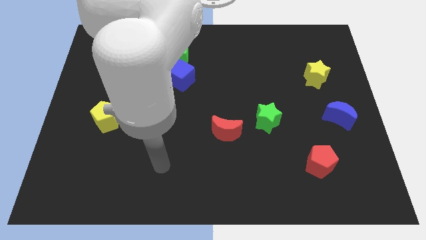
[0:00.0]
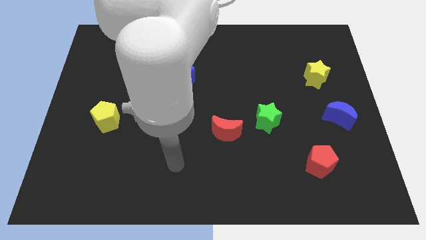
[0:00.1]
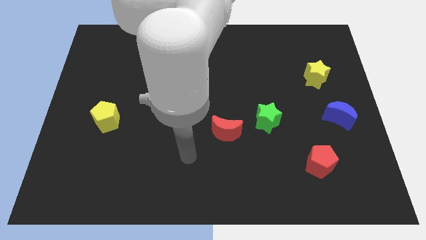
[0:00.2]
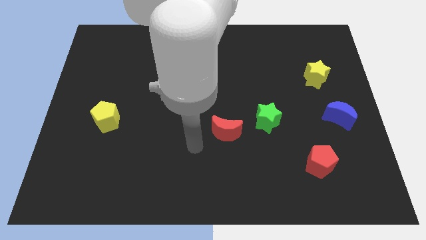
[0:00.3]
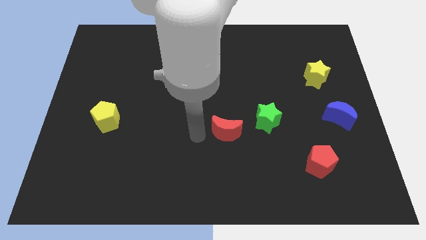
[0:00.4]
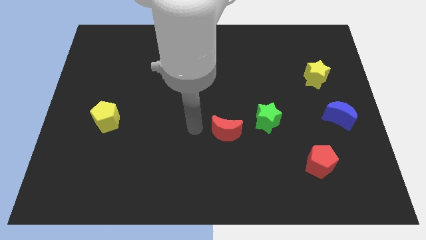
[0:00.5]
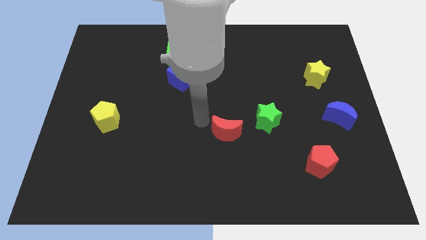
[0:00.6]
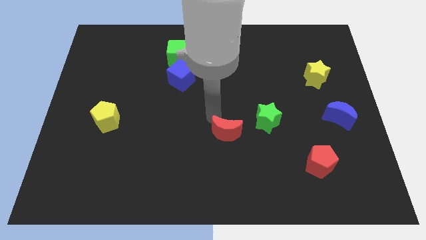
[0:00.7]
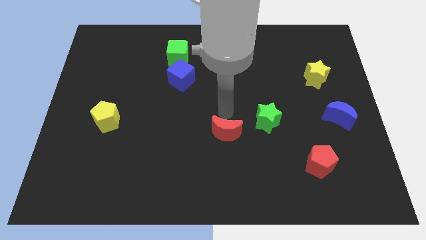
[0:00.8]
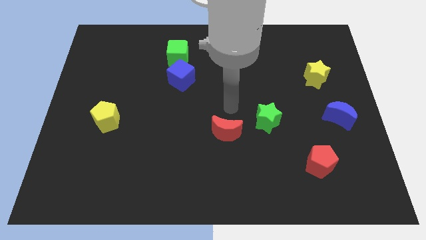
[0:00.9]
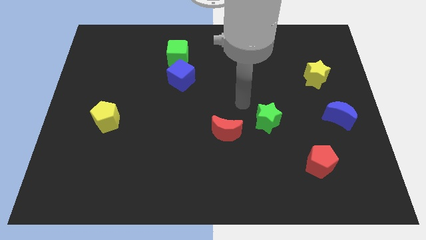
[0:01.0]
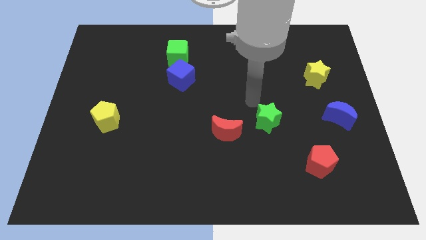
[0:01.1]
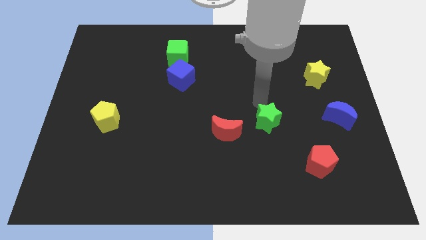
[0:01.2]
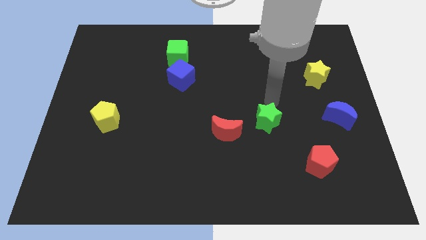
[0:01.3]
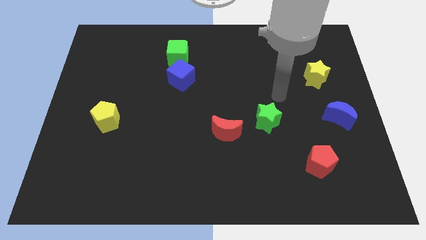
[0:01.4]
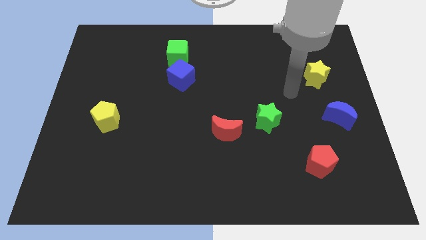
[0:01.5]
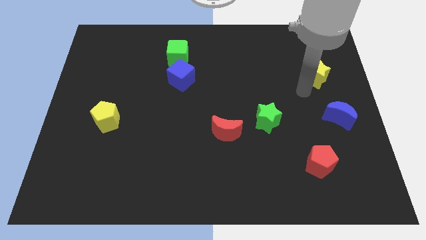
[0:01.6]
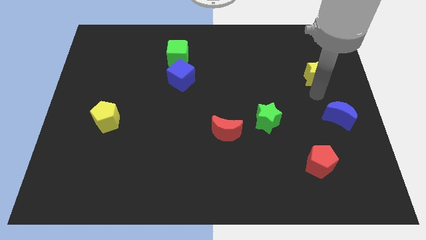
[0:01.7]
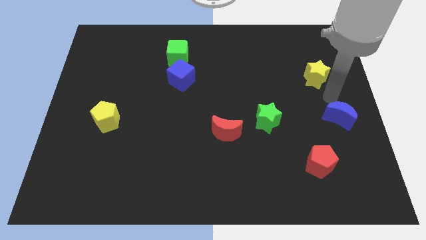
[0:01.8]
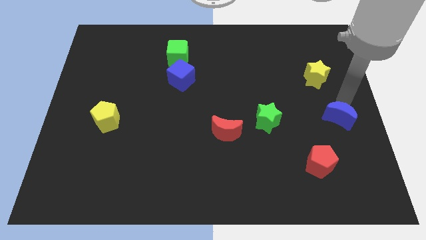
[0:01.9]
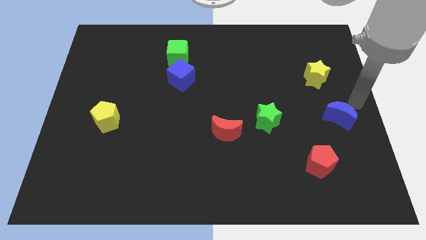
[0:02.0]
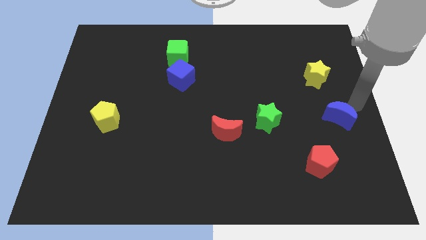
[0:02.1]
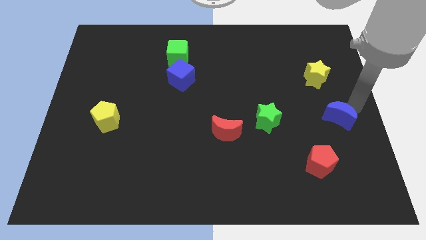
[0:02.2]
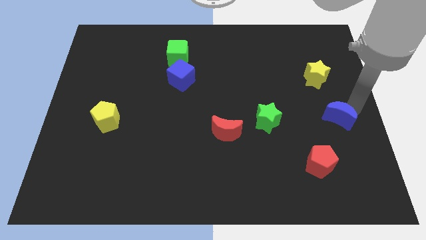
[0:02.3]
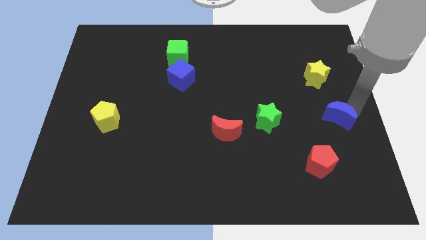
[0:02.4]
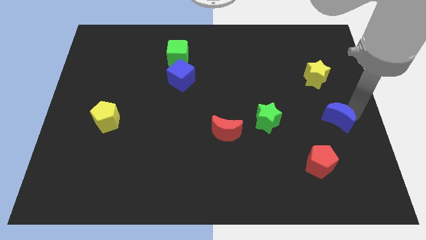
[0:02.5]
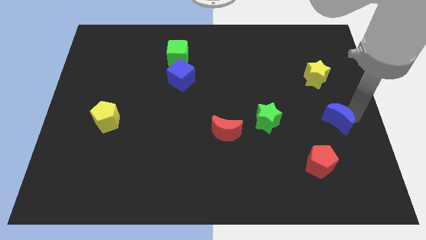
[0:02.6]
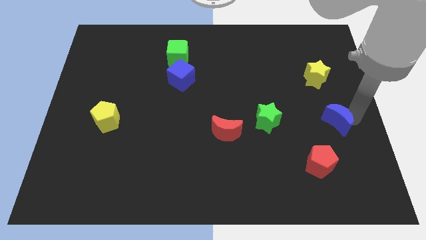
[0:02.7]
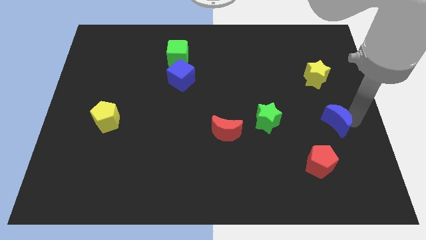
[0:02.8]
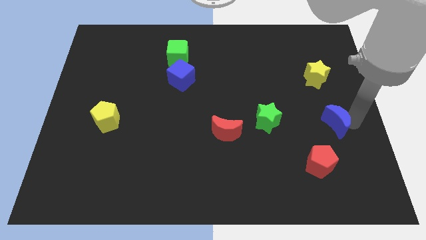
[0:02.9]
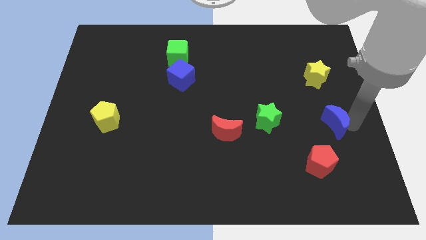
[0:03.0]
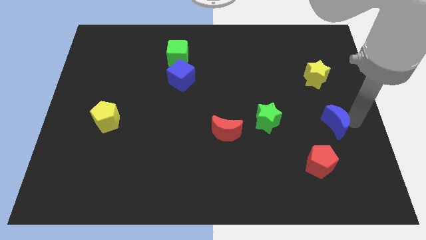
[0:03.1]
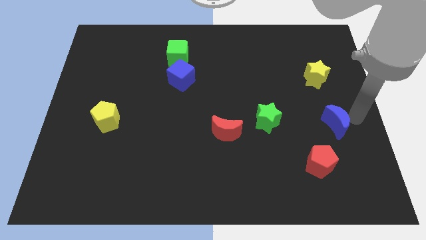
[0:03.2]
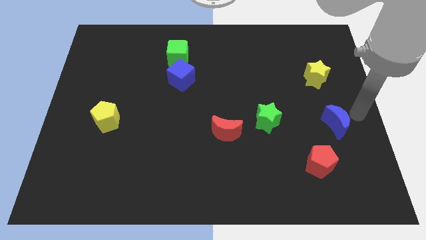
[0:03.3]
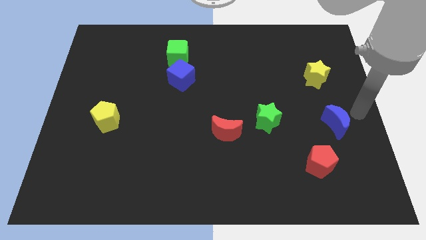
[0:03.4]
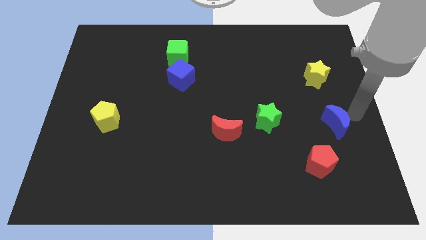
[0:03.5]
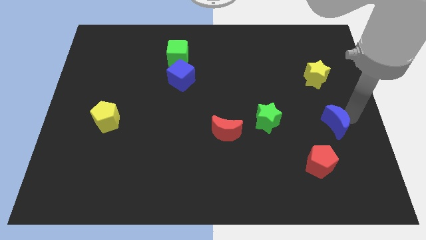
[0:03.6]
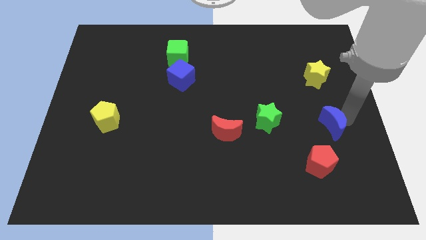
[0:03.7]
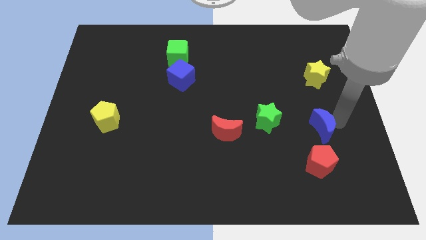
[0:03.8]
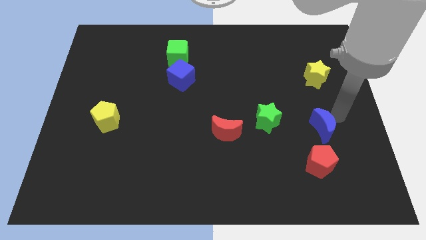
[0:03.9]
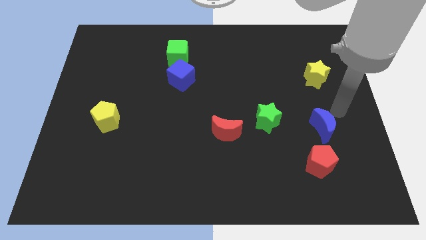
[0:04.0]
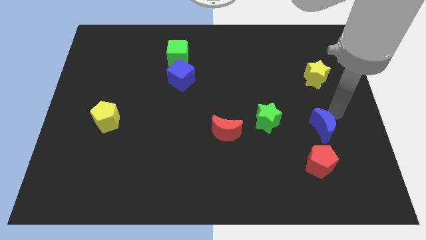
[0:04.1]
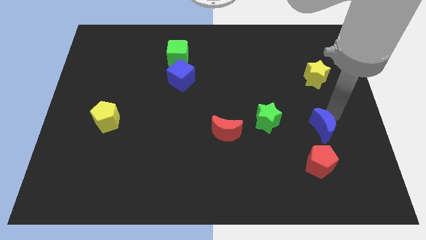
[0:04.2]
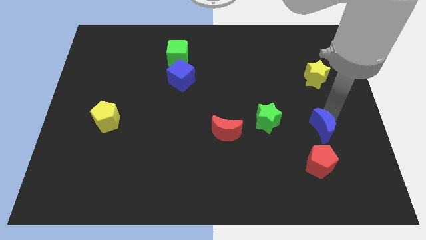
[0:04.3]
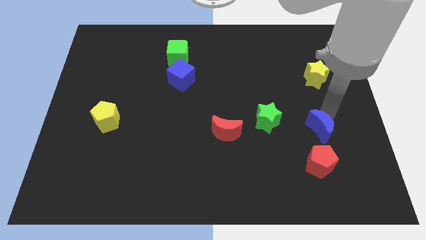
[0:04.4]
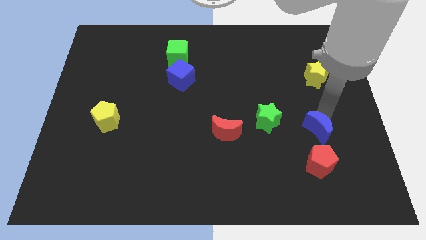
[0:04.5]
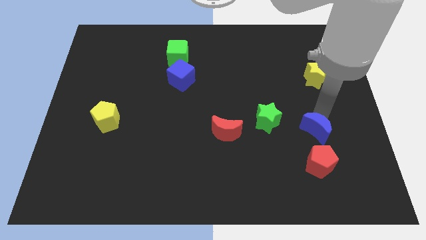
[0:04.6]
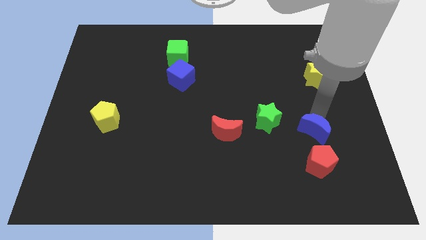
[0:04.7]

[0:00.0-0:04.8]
slide the blue moon diagonally down and left slightly

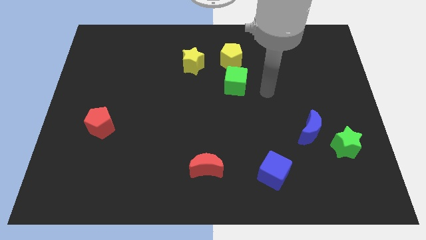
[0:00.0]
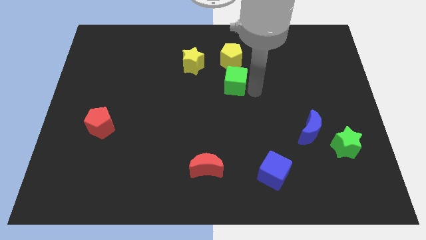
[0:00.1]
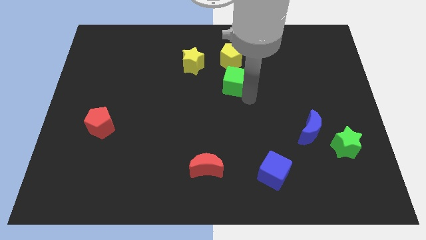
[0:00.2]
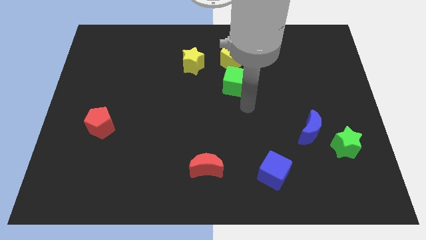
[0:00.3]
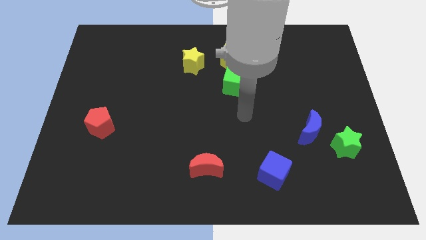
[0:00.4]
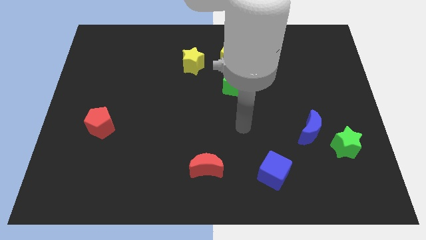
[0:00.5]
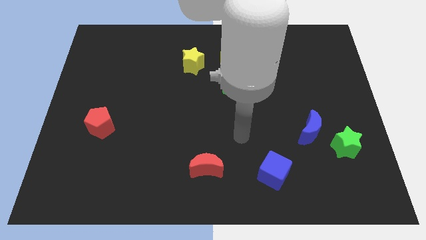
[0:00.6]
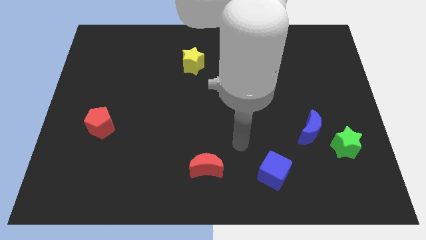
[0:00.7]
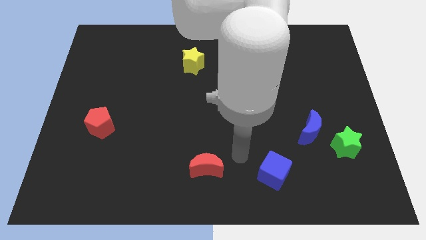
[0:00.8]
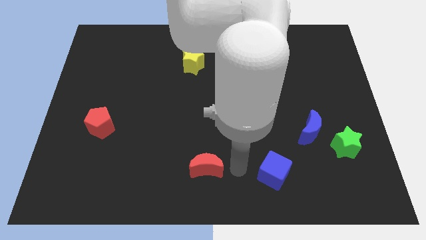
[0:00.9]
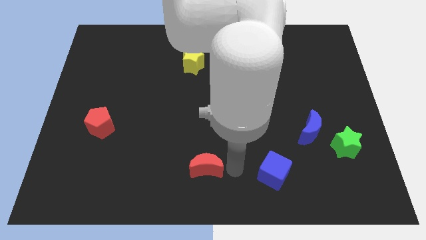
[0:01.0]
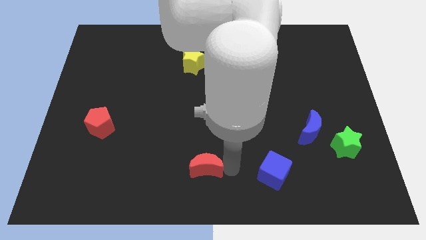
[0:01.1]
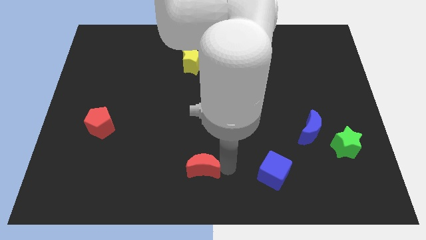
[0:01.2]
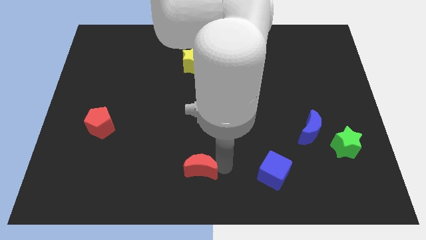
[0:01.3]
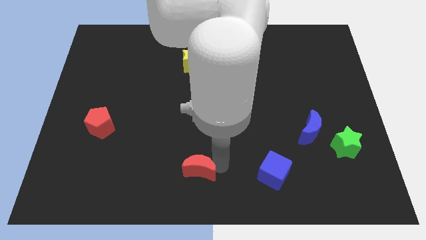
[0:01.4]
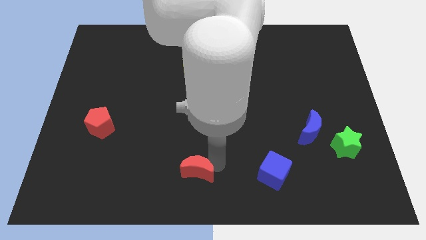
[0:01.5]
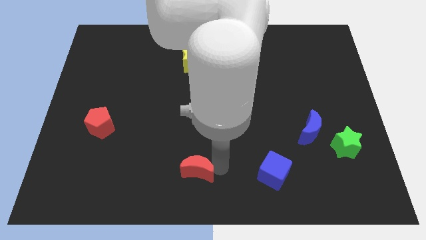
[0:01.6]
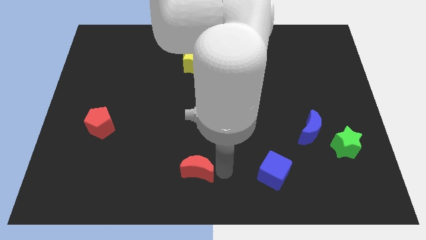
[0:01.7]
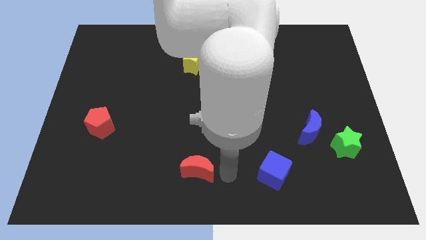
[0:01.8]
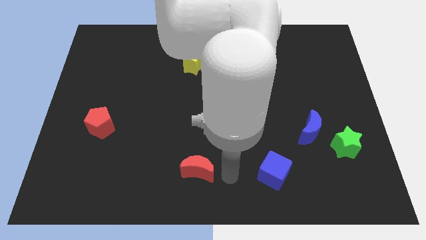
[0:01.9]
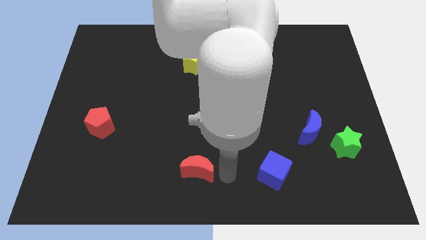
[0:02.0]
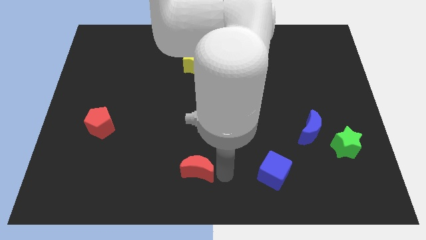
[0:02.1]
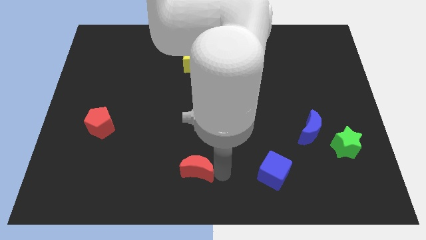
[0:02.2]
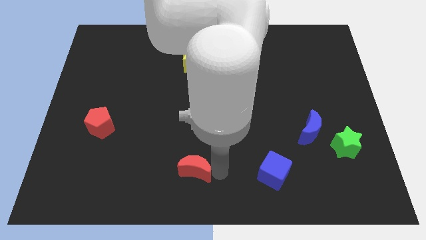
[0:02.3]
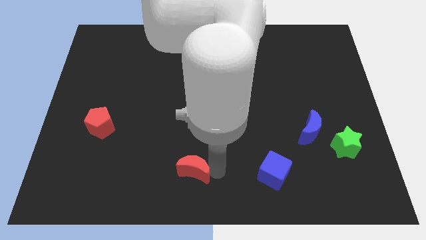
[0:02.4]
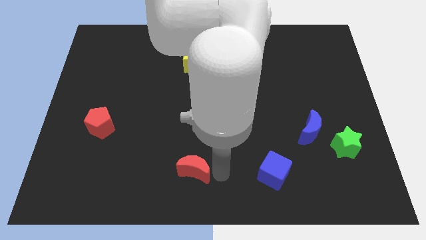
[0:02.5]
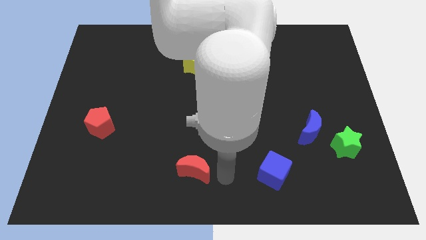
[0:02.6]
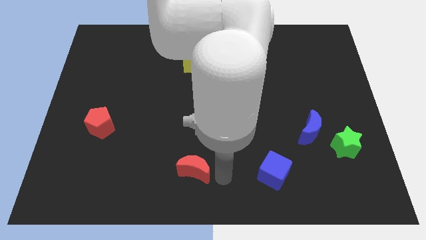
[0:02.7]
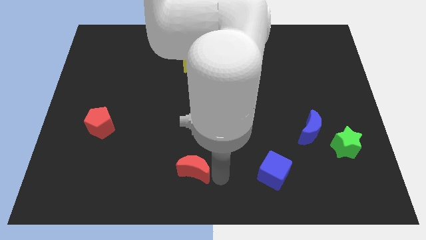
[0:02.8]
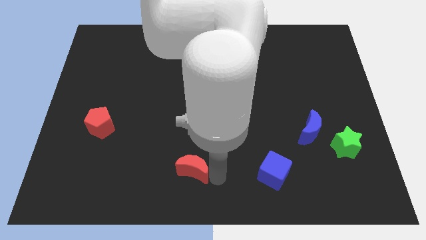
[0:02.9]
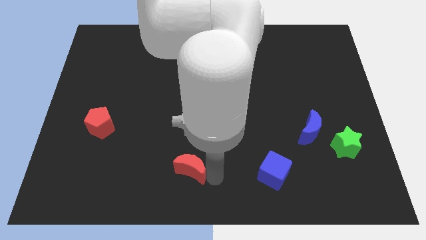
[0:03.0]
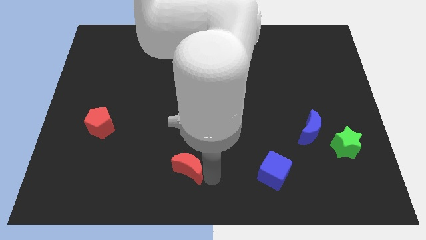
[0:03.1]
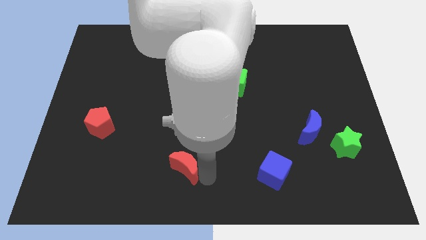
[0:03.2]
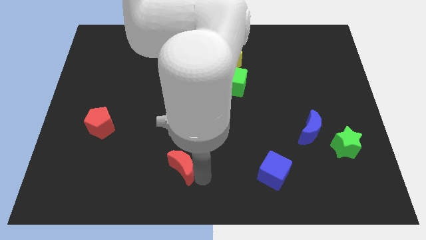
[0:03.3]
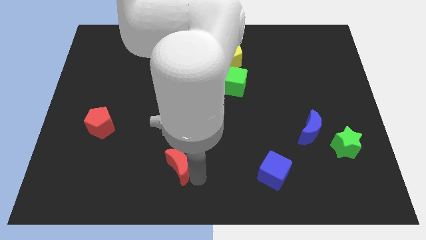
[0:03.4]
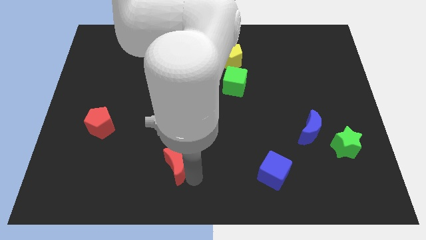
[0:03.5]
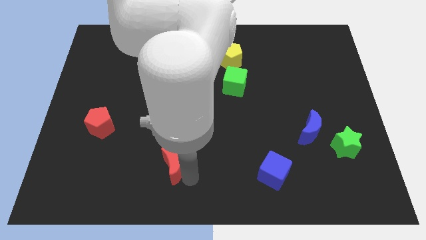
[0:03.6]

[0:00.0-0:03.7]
slide the red moon left a little
